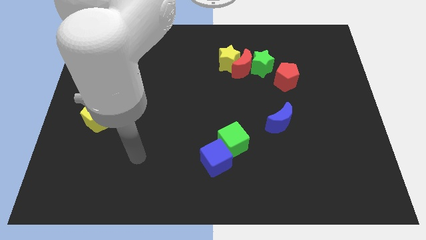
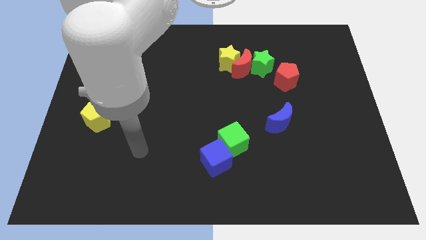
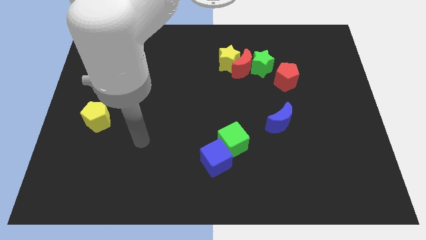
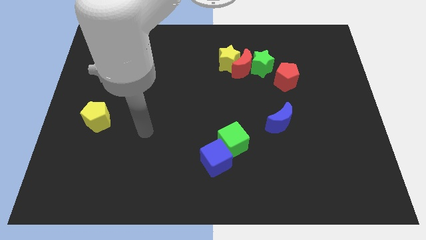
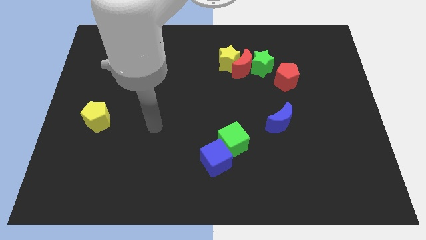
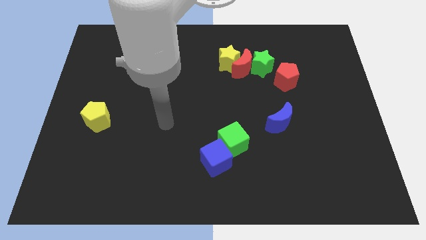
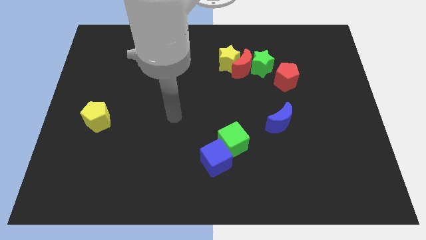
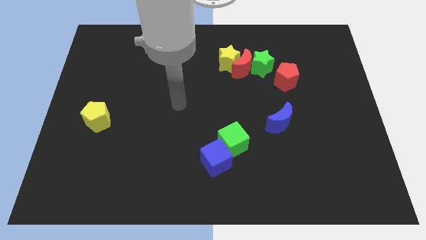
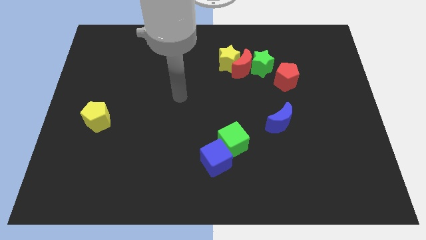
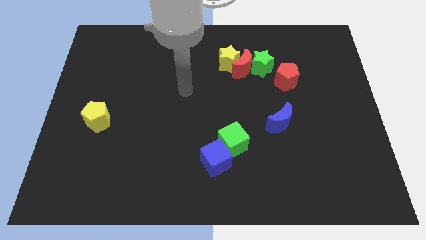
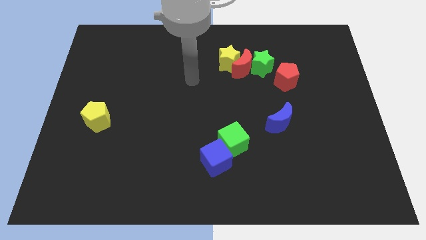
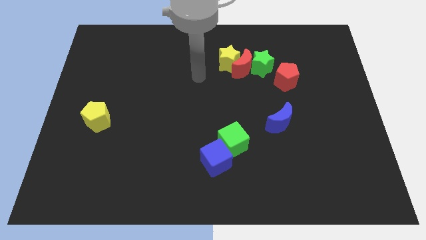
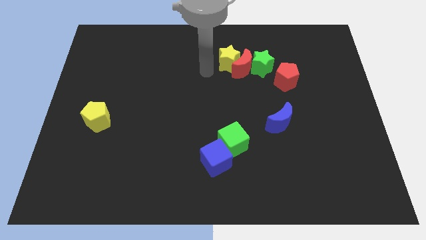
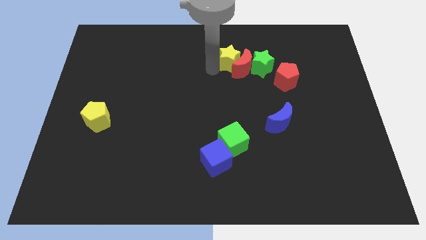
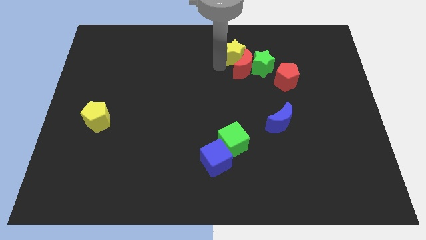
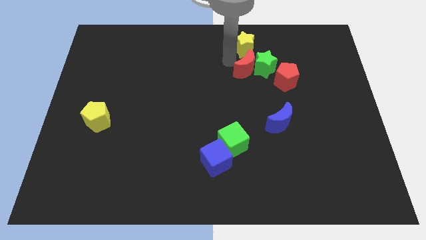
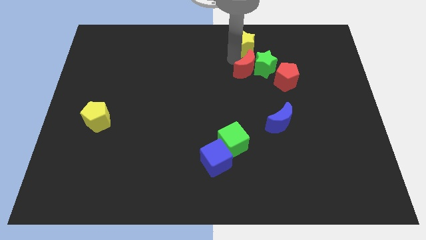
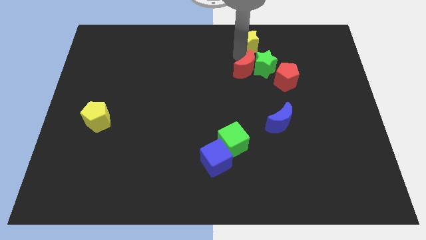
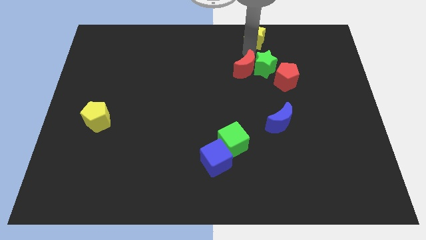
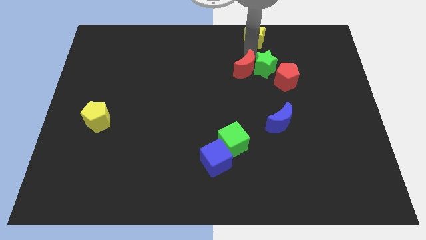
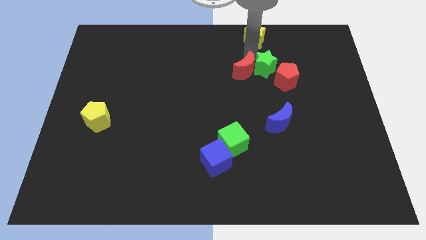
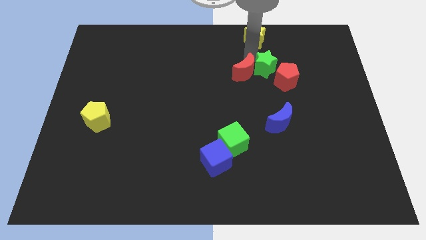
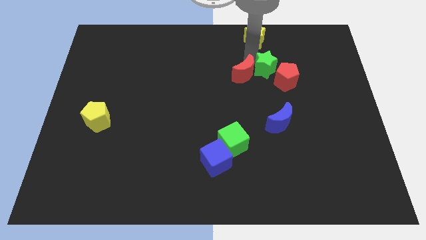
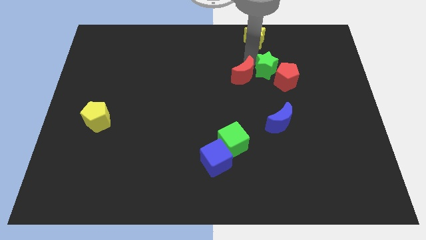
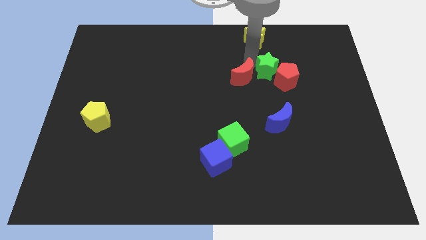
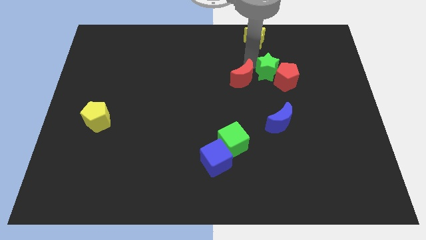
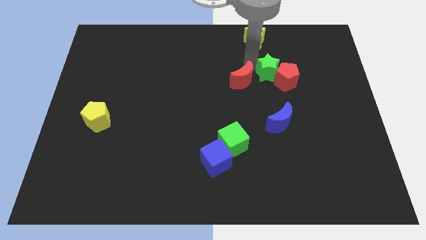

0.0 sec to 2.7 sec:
pull the red moon apart from the green star and yellow star

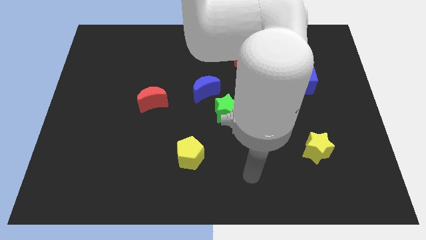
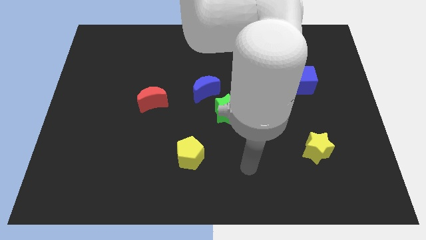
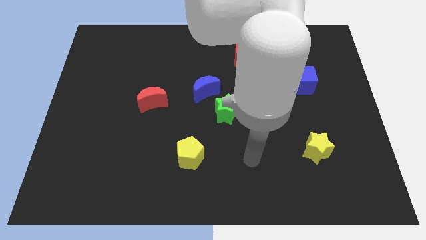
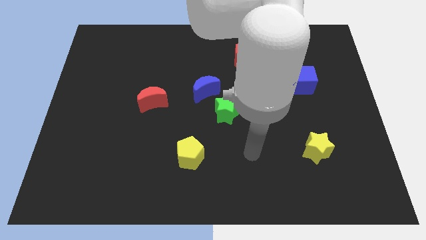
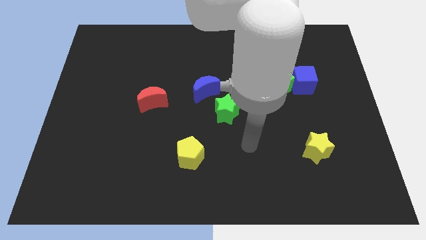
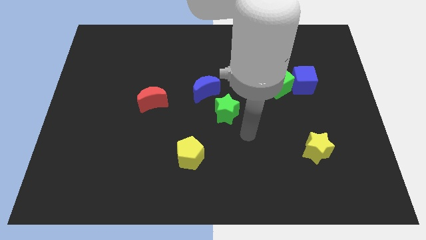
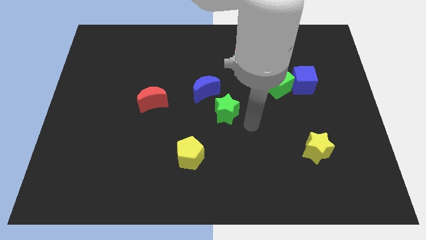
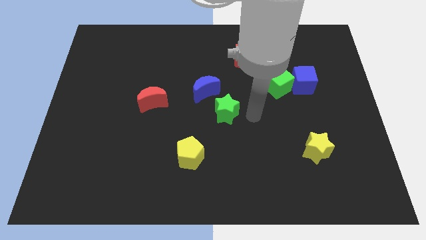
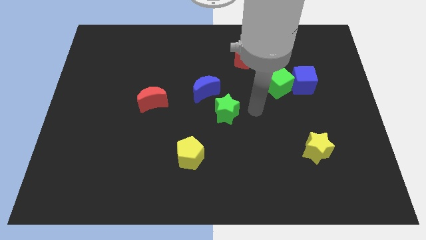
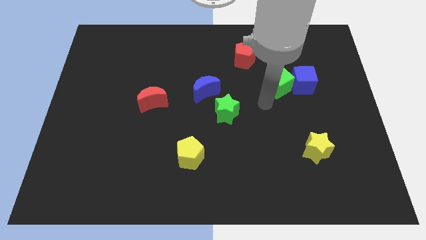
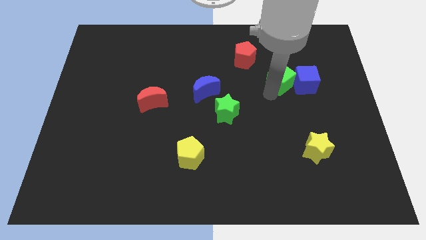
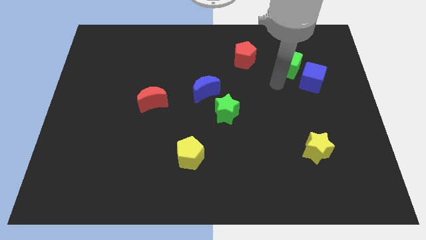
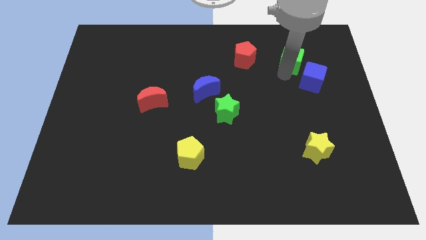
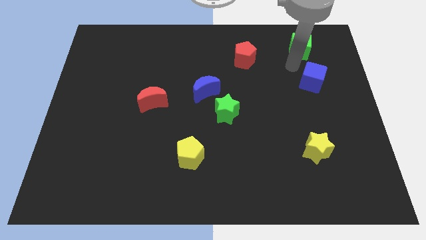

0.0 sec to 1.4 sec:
move the blue cube away from the green cube

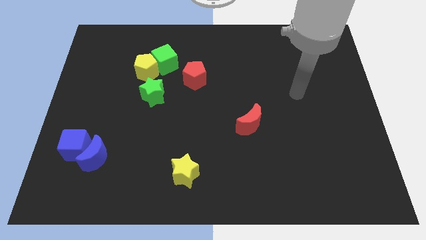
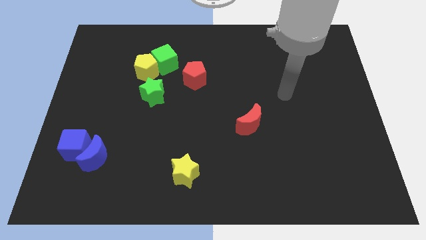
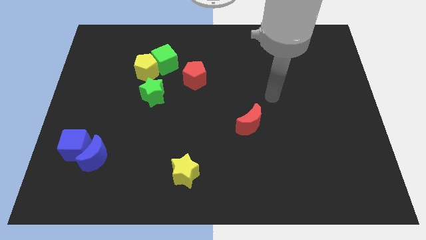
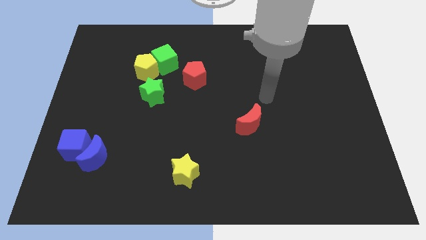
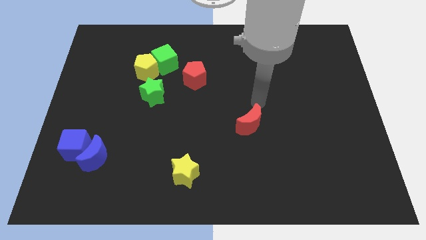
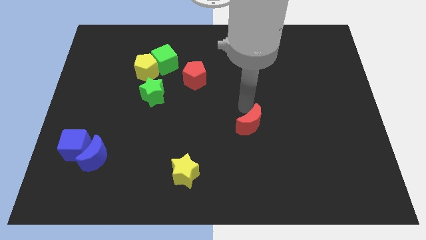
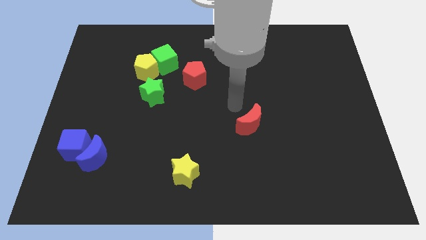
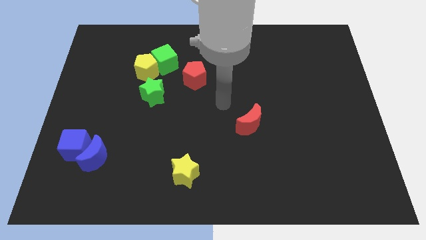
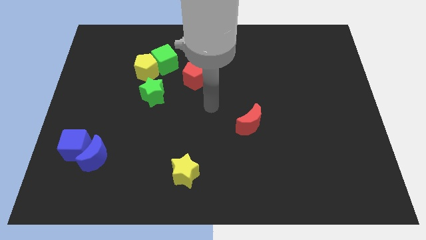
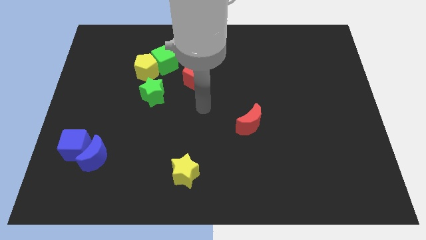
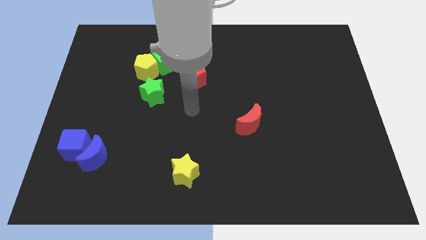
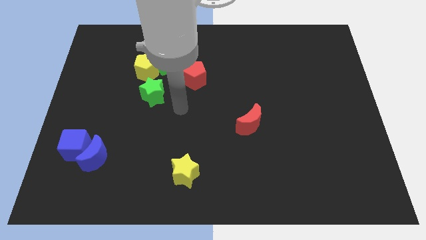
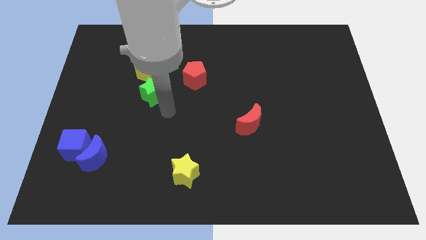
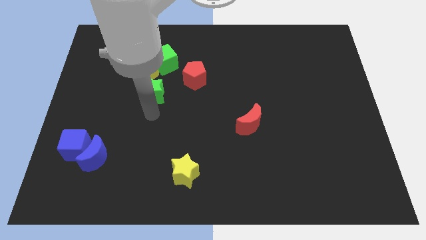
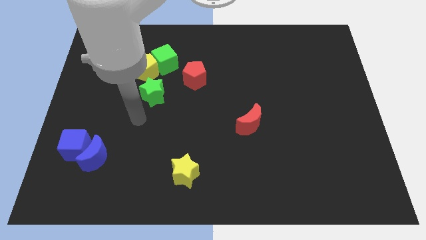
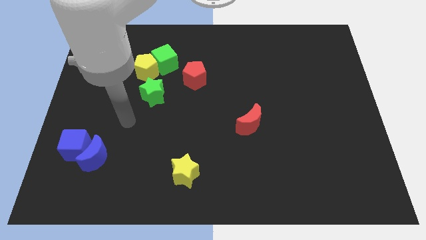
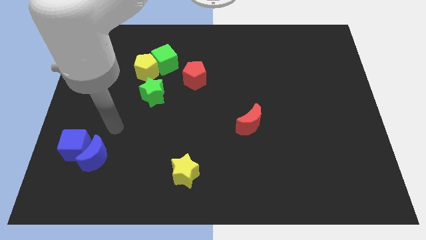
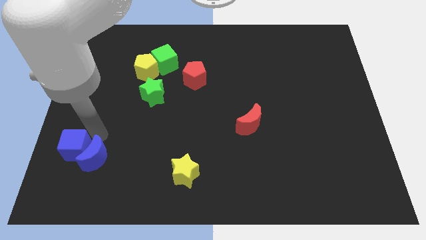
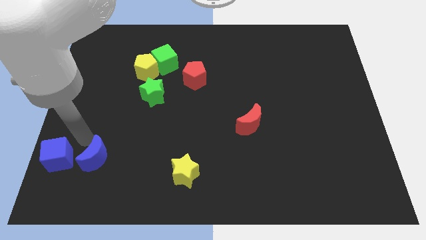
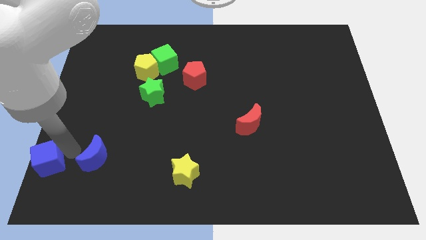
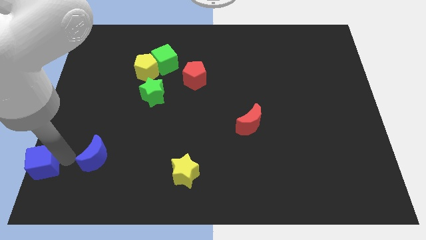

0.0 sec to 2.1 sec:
pull the blue moon apart from the blue cube

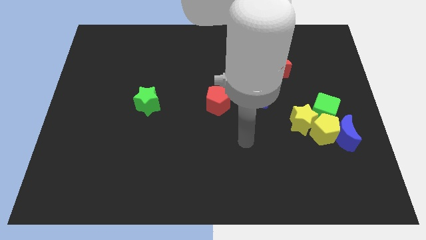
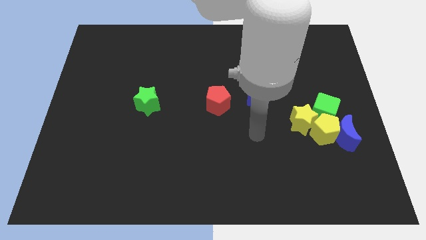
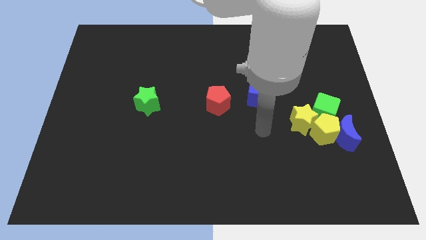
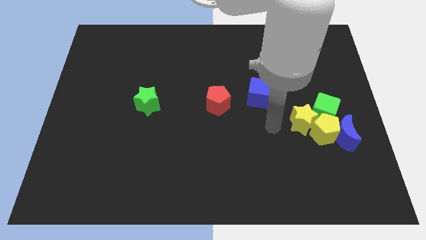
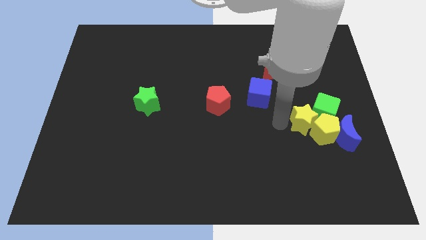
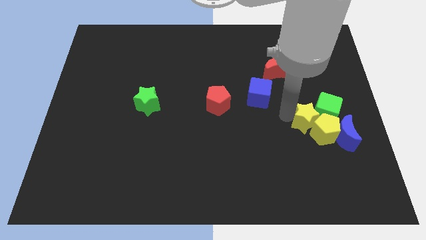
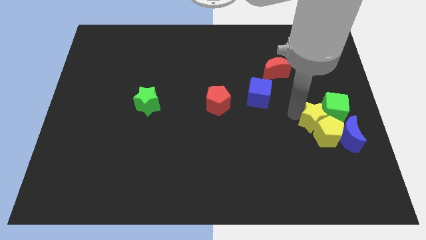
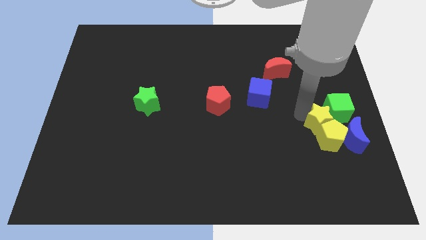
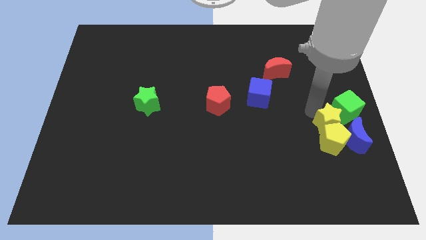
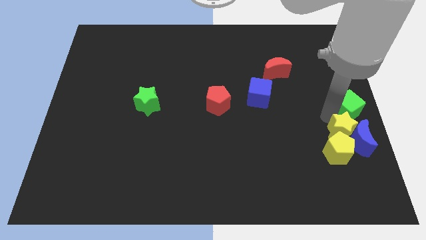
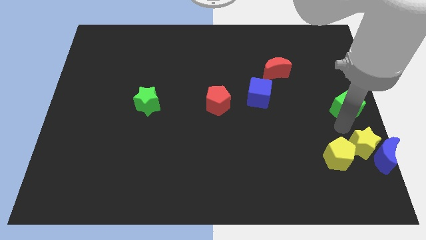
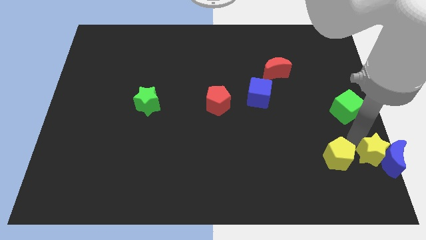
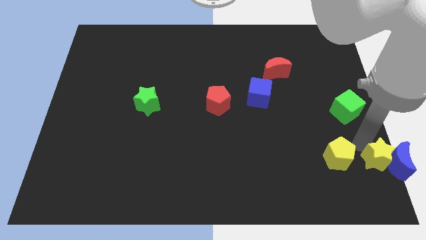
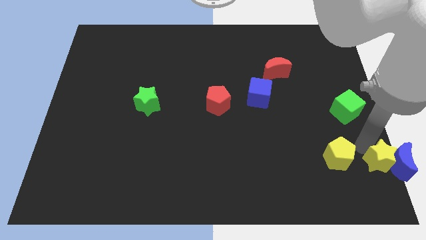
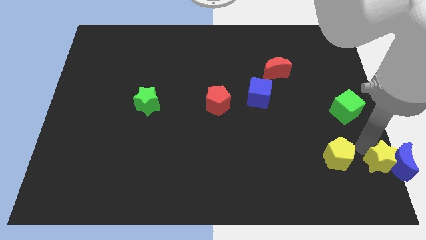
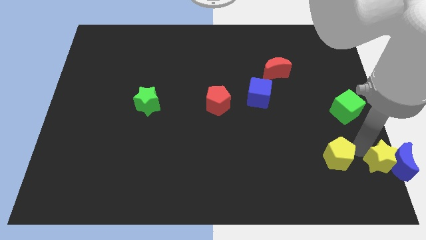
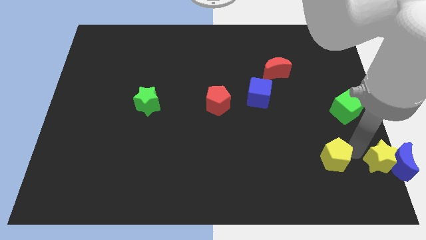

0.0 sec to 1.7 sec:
pull the yellow pentagon apart from the blue moon, yellow star, and green cube

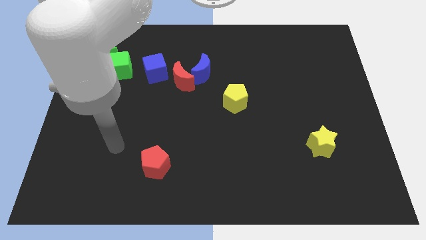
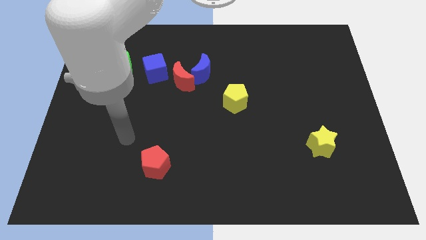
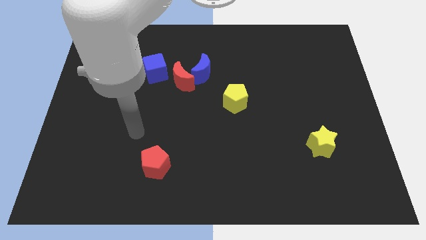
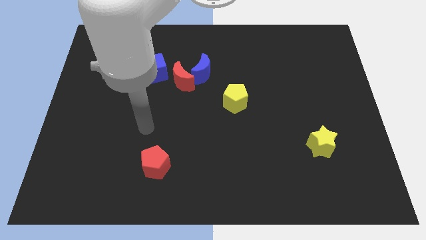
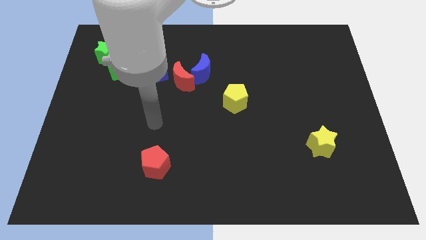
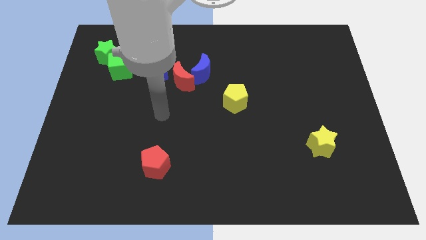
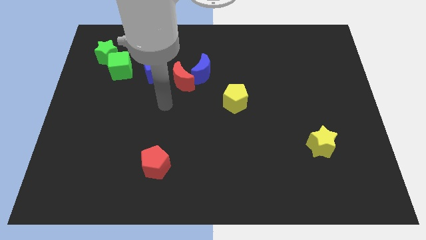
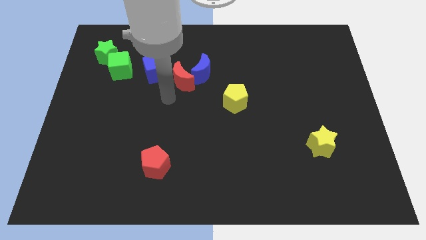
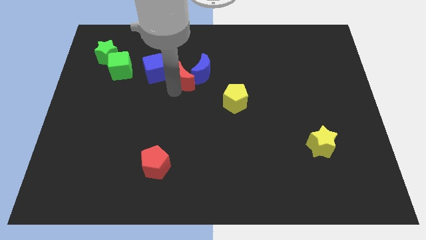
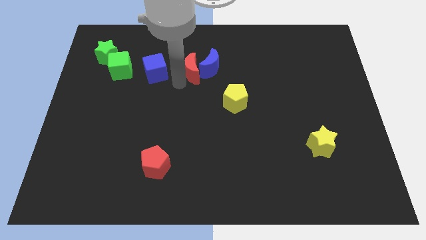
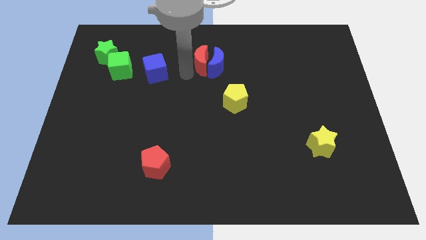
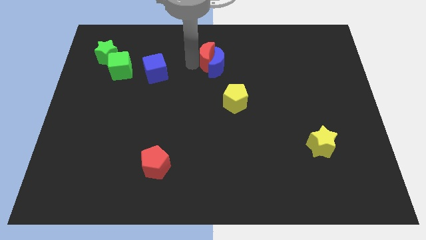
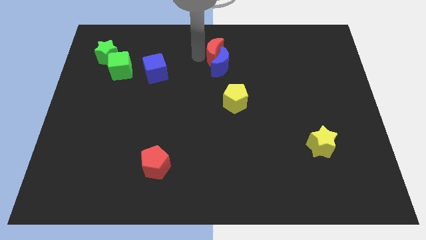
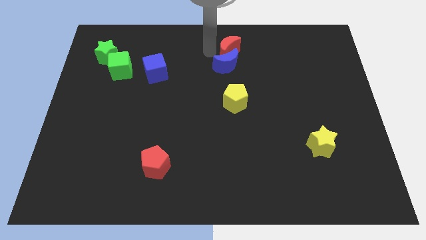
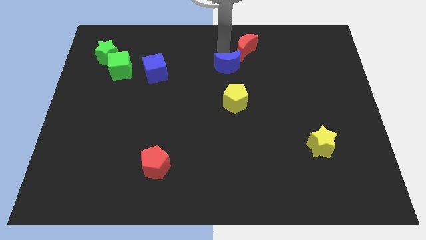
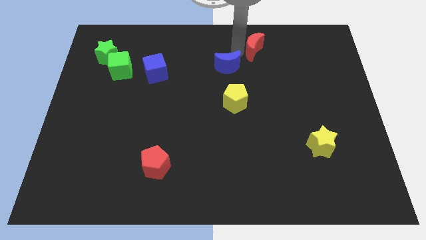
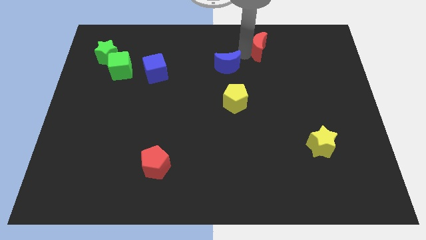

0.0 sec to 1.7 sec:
pull the blue moon apart from the red moon
